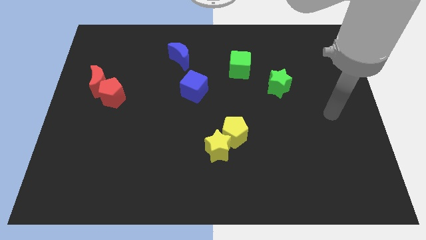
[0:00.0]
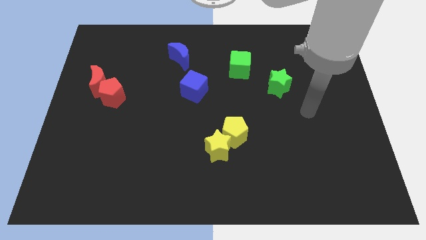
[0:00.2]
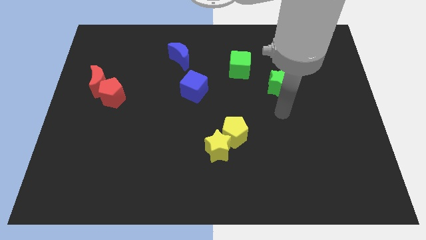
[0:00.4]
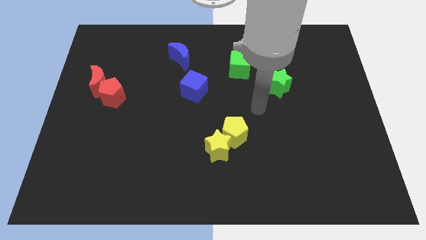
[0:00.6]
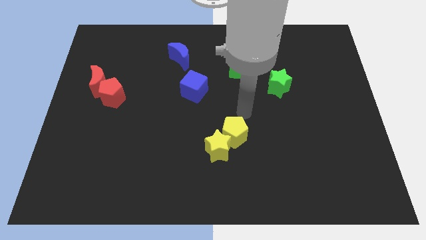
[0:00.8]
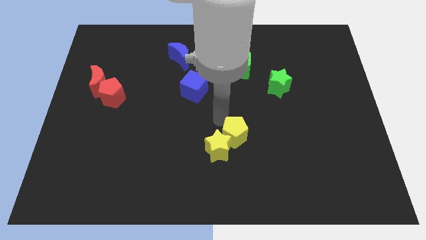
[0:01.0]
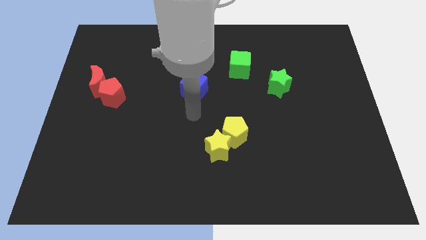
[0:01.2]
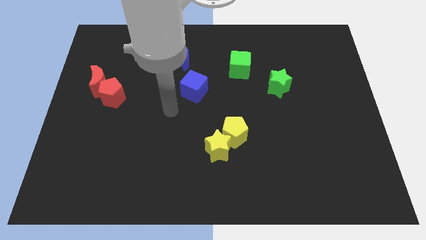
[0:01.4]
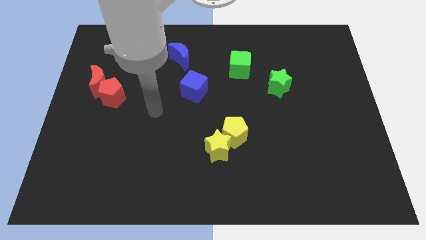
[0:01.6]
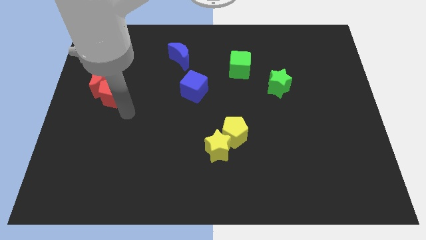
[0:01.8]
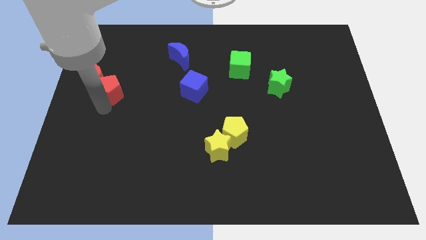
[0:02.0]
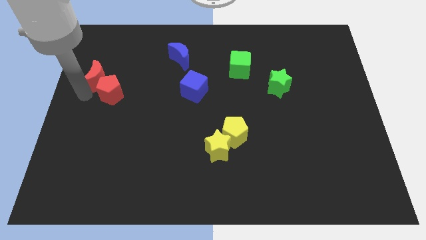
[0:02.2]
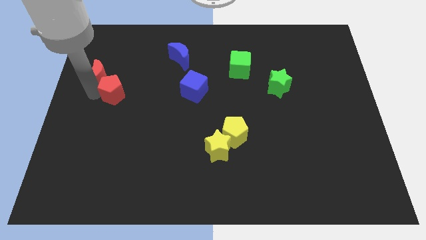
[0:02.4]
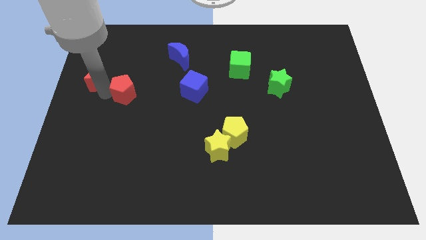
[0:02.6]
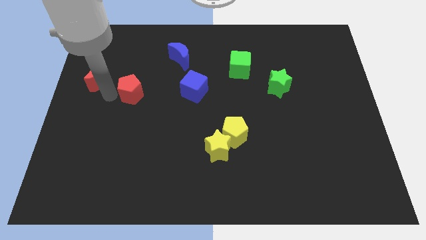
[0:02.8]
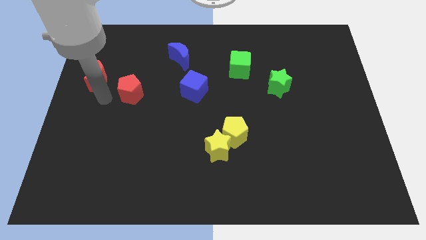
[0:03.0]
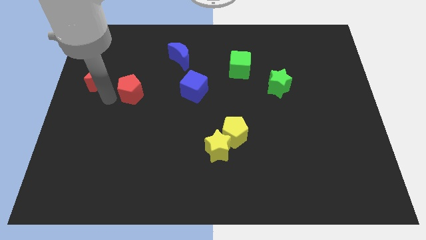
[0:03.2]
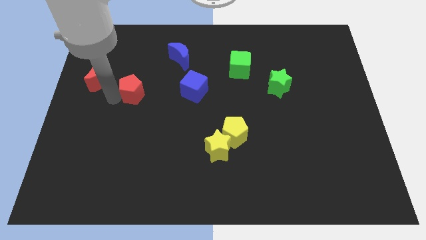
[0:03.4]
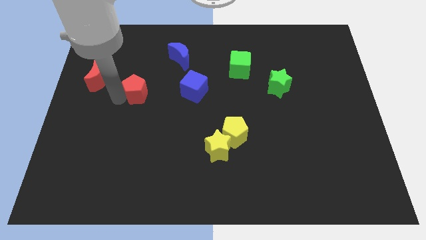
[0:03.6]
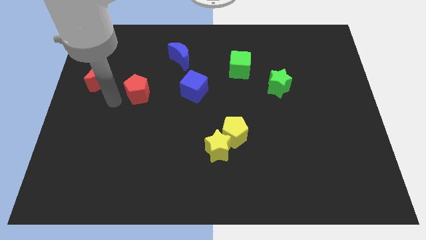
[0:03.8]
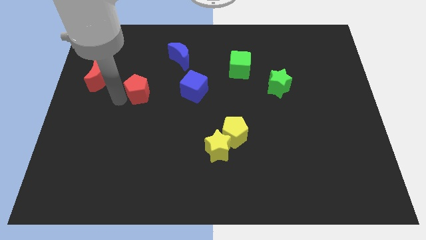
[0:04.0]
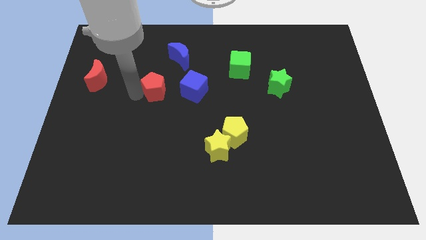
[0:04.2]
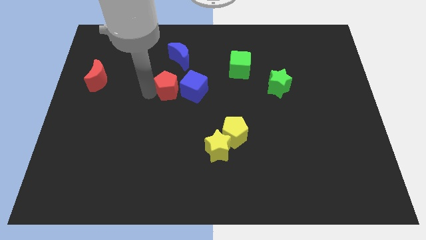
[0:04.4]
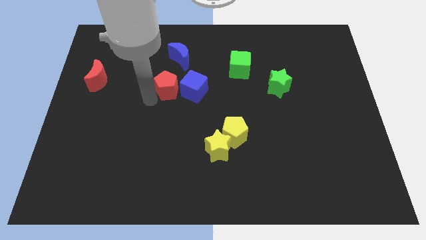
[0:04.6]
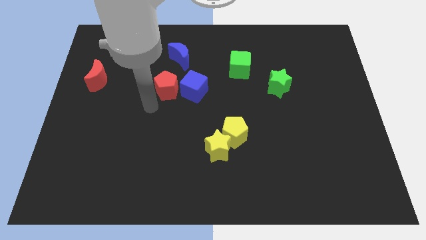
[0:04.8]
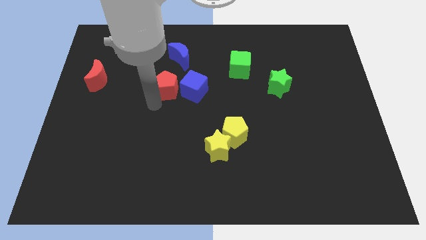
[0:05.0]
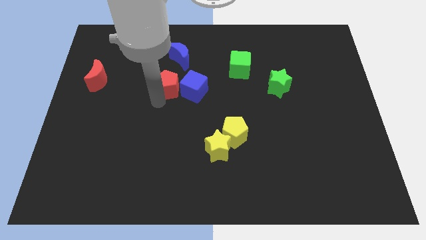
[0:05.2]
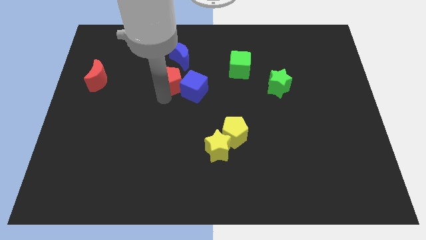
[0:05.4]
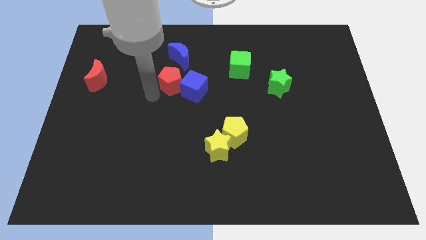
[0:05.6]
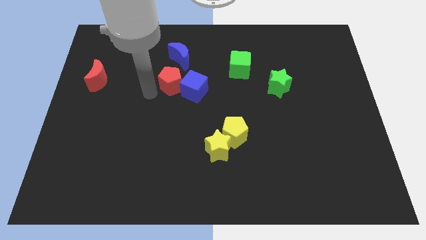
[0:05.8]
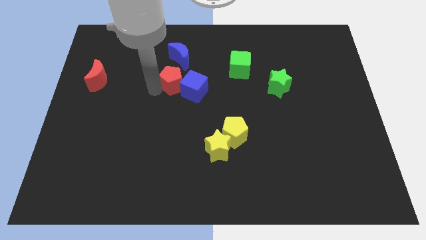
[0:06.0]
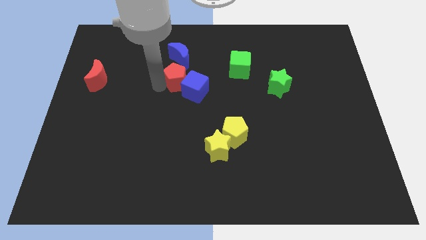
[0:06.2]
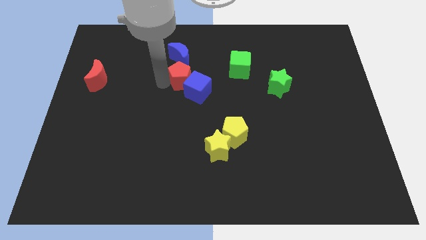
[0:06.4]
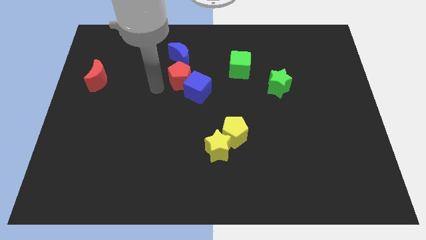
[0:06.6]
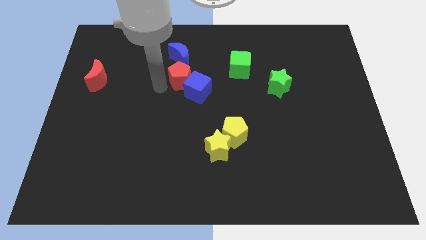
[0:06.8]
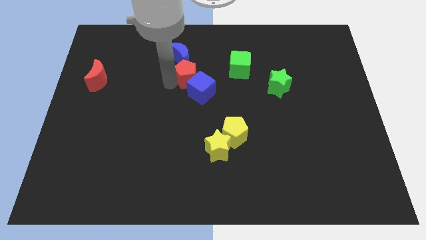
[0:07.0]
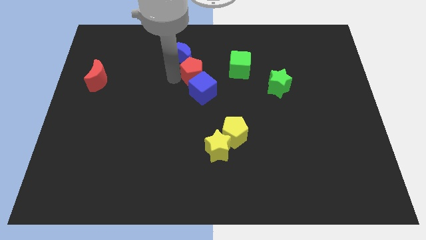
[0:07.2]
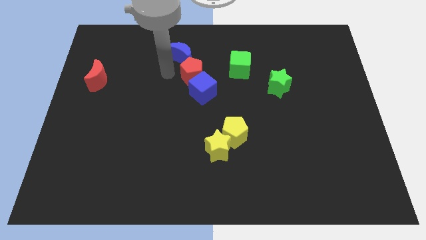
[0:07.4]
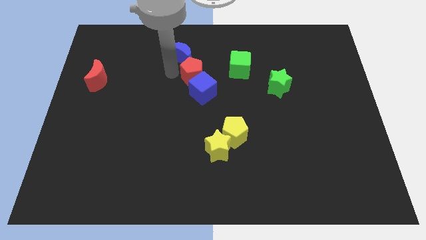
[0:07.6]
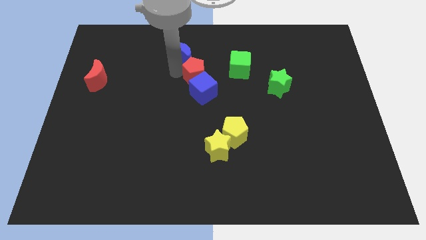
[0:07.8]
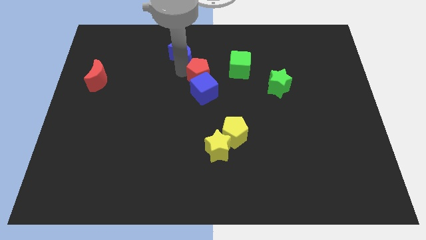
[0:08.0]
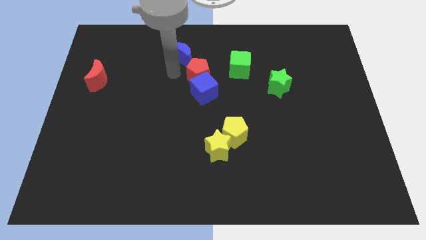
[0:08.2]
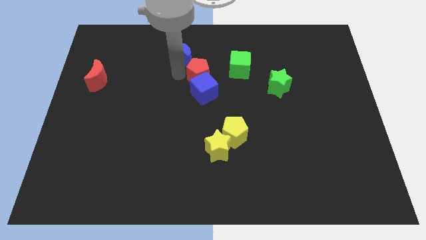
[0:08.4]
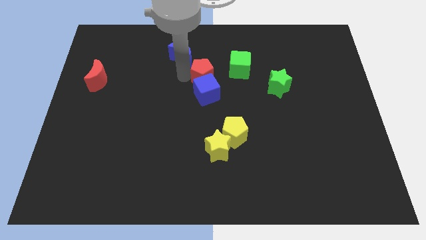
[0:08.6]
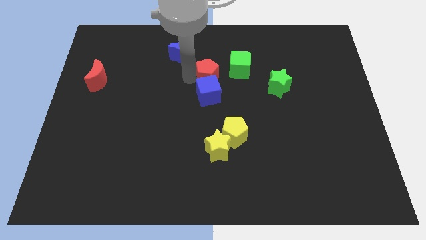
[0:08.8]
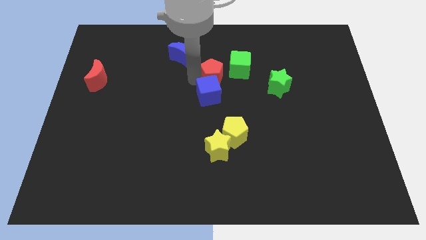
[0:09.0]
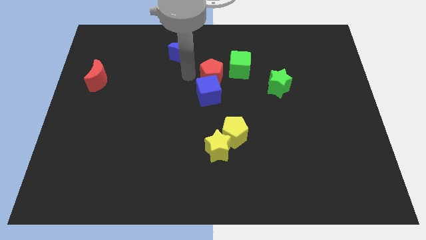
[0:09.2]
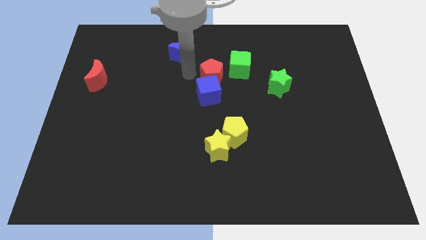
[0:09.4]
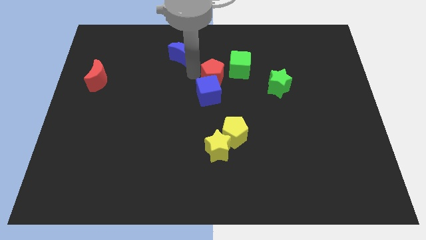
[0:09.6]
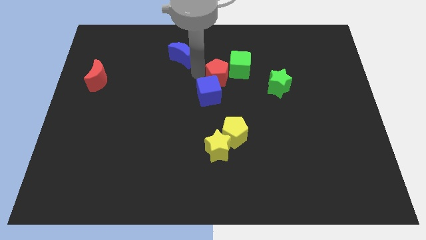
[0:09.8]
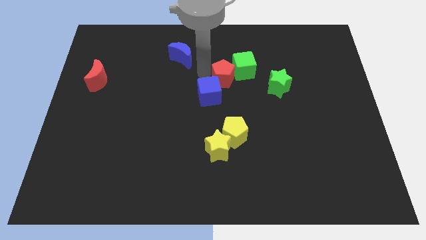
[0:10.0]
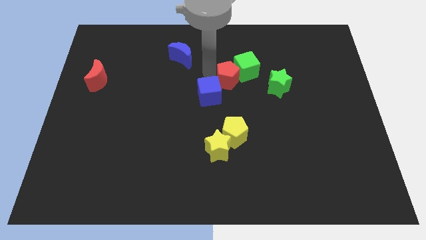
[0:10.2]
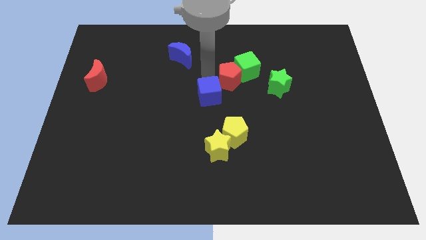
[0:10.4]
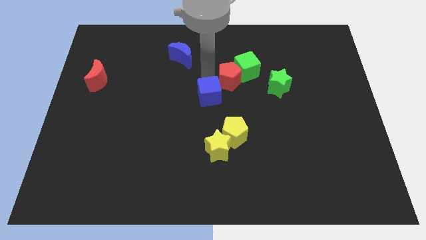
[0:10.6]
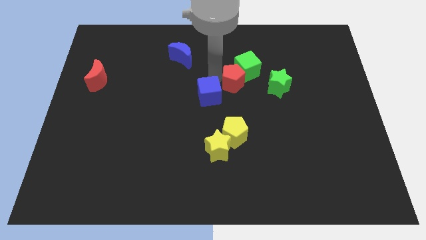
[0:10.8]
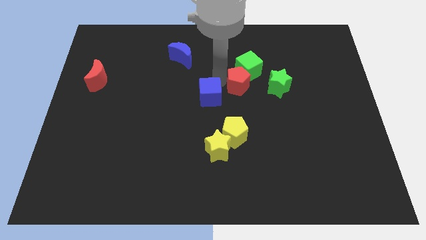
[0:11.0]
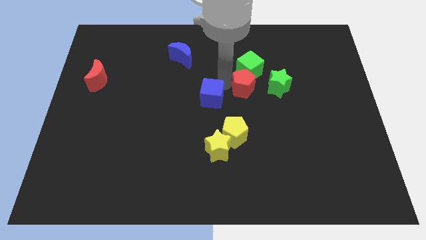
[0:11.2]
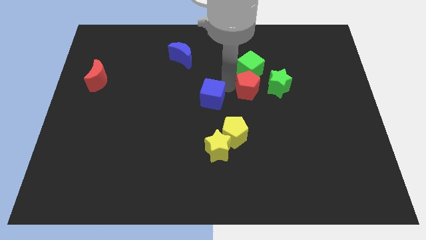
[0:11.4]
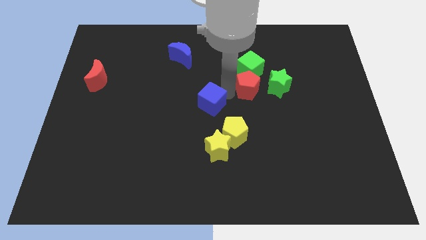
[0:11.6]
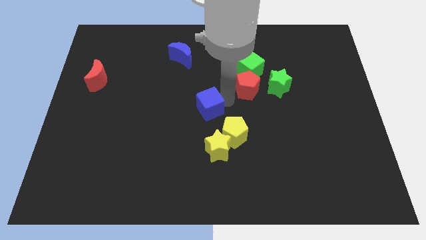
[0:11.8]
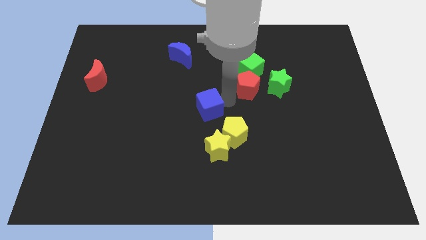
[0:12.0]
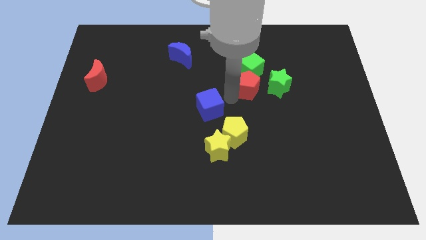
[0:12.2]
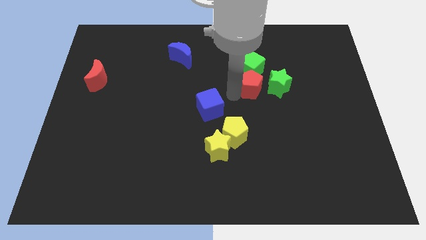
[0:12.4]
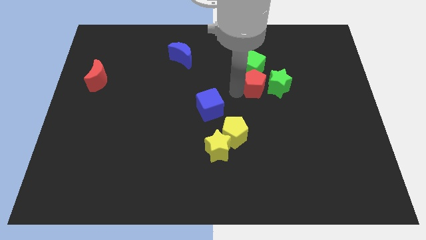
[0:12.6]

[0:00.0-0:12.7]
move the red pentagon towards the green star

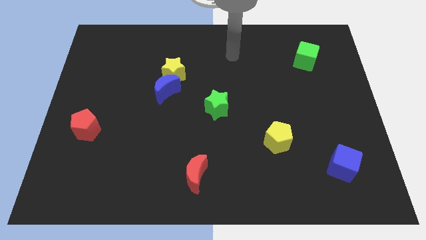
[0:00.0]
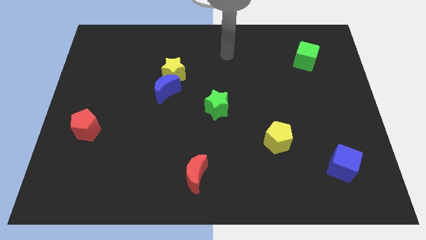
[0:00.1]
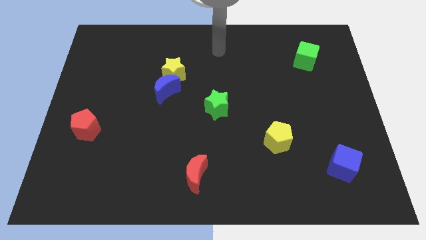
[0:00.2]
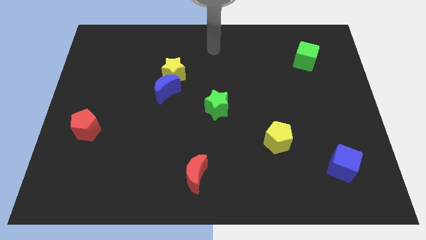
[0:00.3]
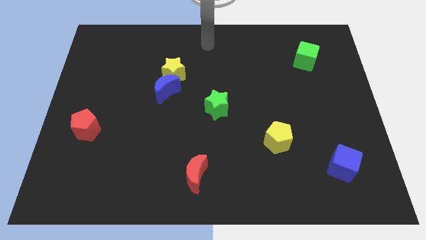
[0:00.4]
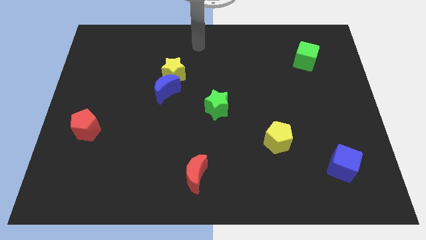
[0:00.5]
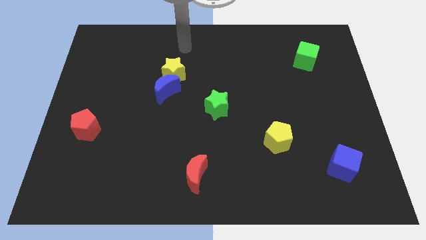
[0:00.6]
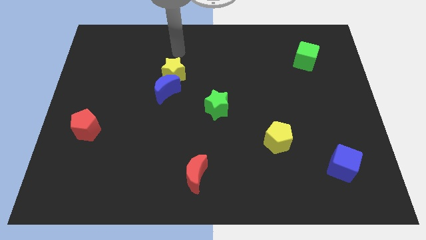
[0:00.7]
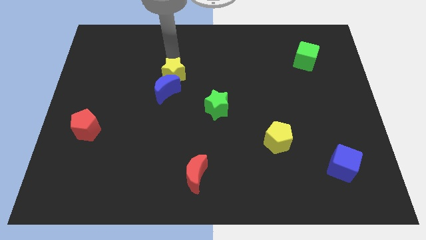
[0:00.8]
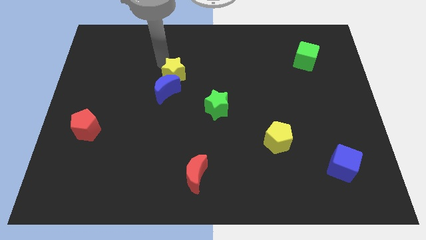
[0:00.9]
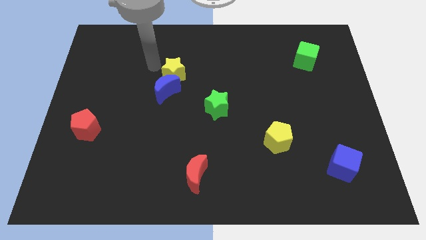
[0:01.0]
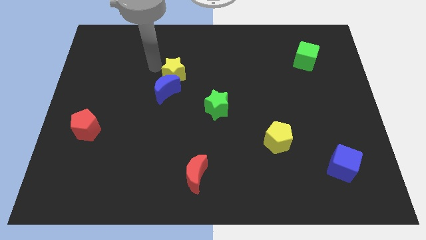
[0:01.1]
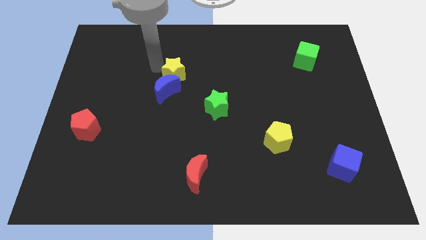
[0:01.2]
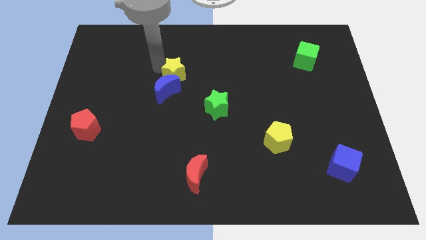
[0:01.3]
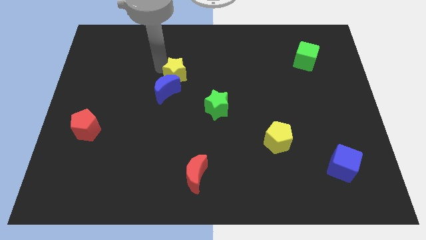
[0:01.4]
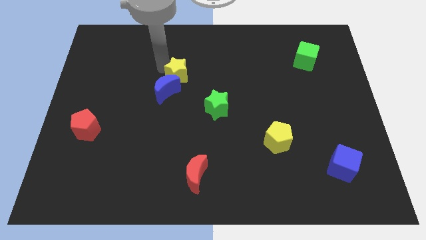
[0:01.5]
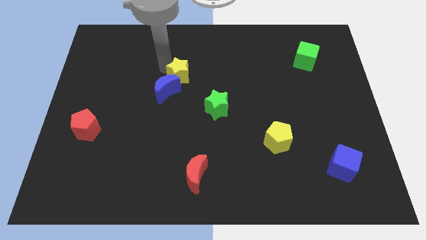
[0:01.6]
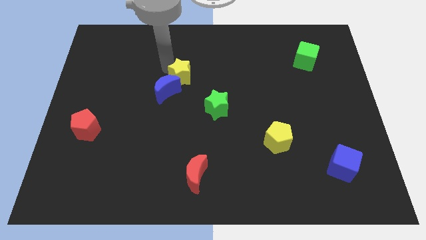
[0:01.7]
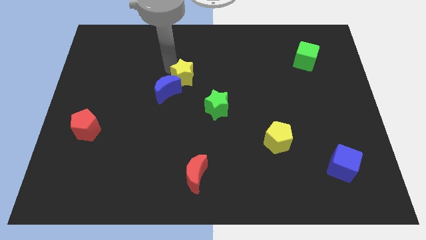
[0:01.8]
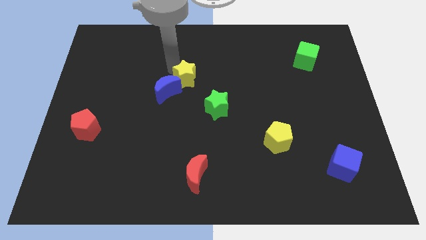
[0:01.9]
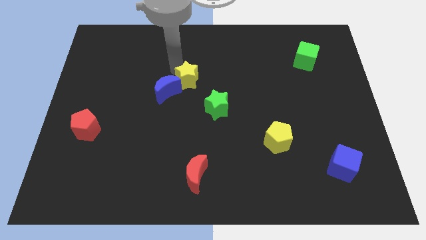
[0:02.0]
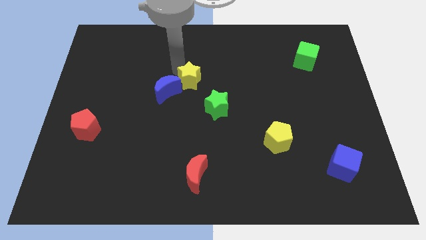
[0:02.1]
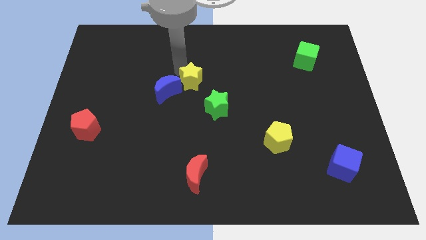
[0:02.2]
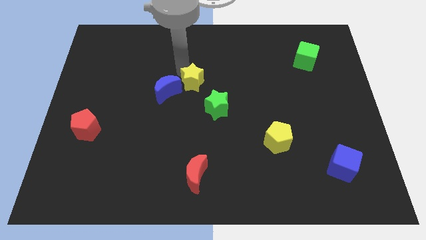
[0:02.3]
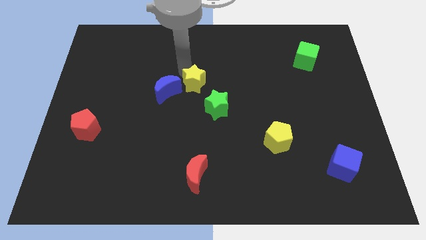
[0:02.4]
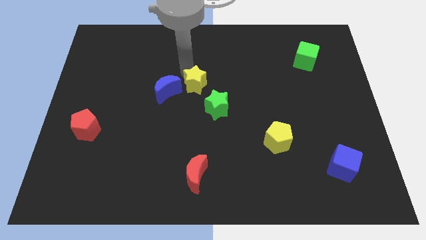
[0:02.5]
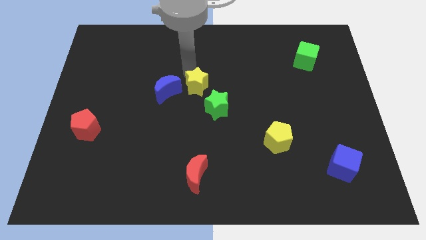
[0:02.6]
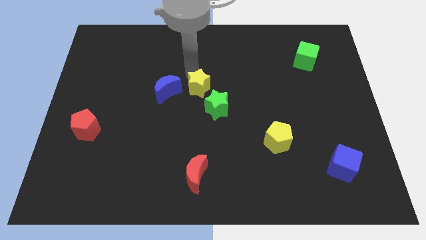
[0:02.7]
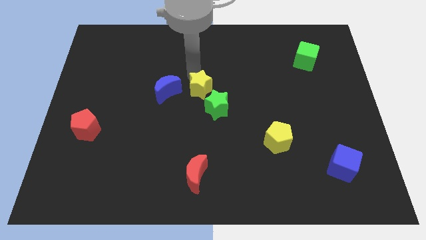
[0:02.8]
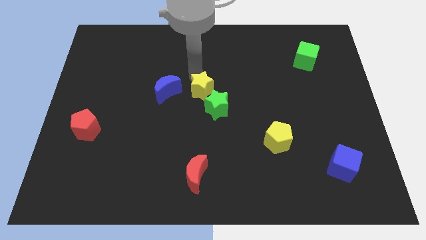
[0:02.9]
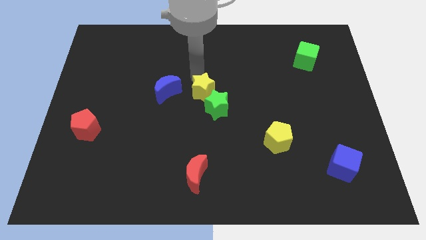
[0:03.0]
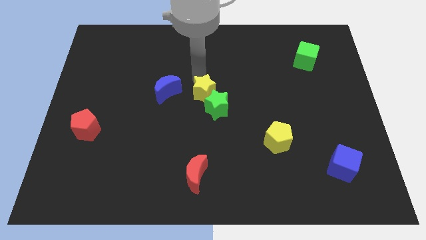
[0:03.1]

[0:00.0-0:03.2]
slide the yellow star towards the green star
